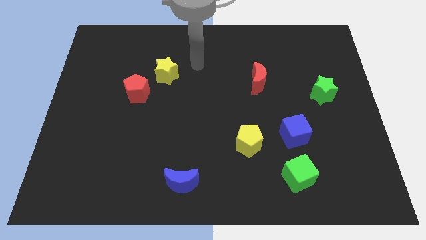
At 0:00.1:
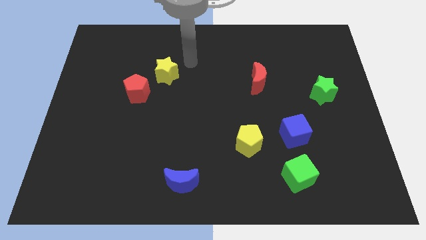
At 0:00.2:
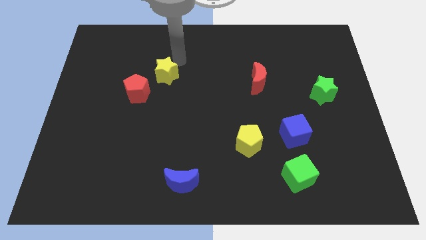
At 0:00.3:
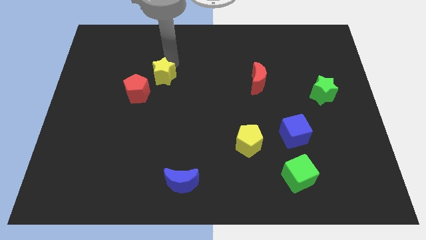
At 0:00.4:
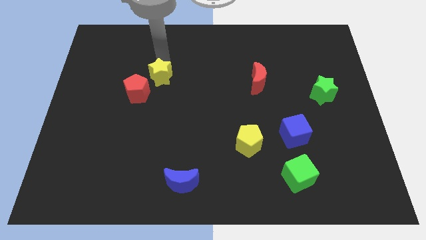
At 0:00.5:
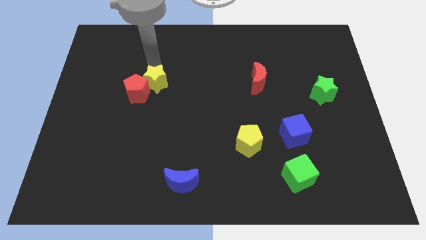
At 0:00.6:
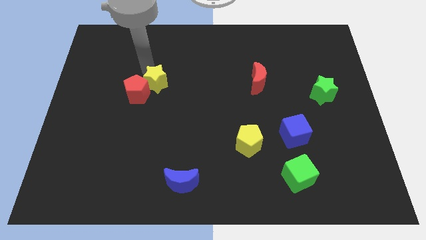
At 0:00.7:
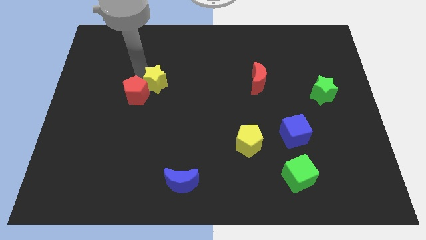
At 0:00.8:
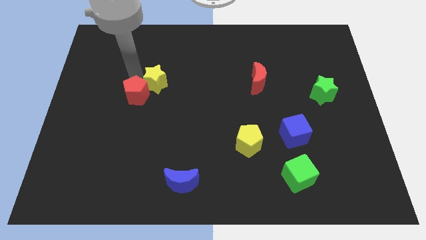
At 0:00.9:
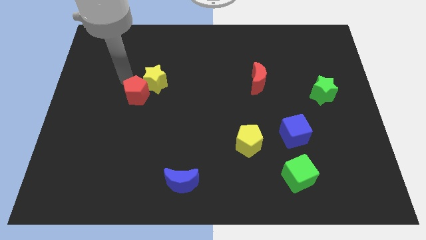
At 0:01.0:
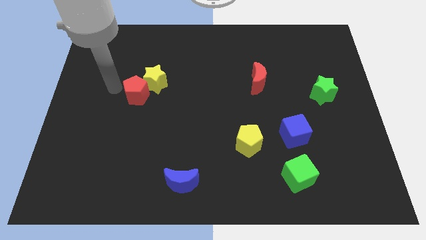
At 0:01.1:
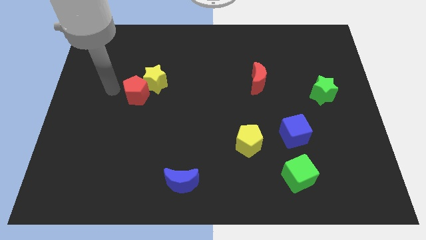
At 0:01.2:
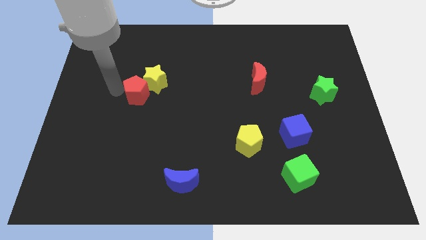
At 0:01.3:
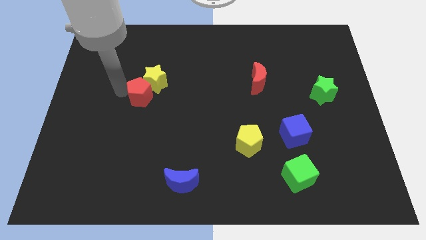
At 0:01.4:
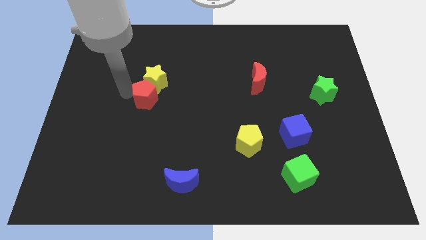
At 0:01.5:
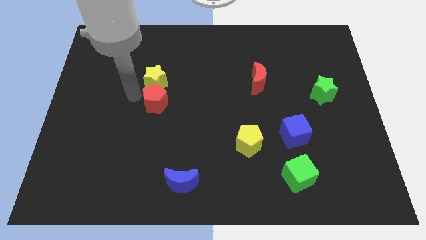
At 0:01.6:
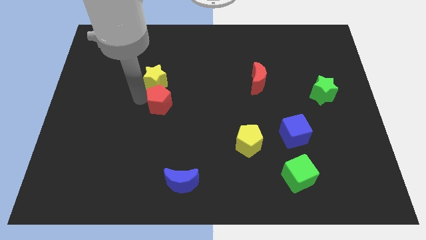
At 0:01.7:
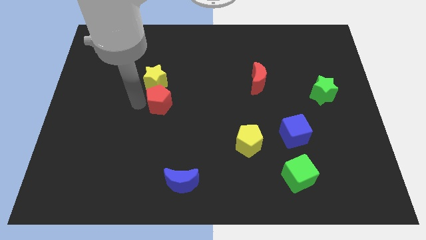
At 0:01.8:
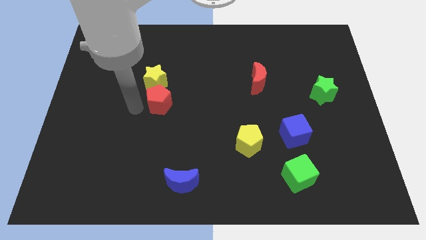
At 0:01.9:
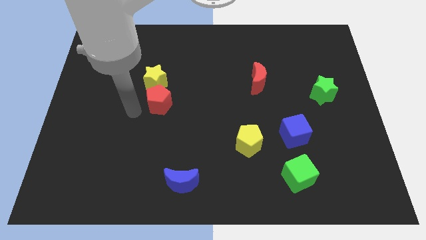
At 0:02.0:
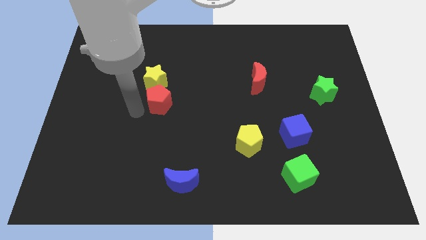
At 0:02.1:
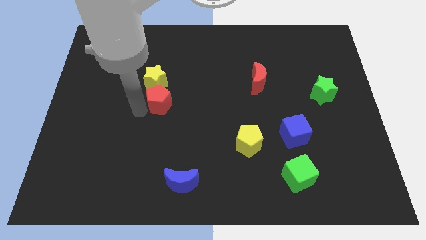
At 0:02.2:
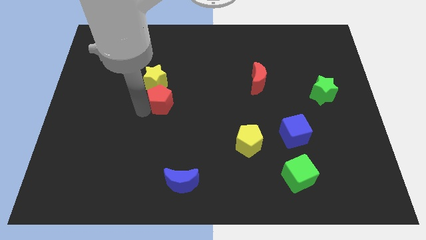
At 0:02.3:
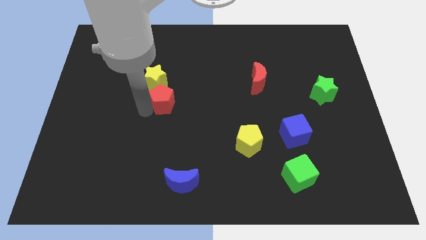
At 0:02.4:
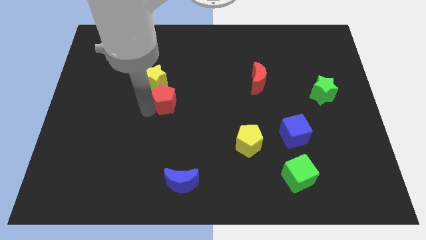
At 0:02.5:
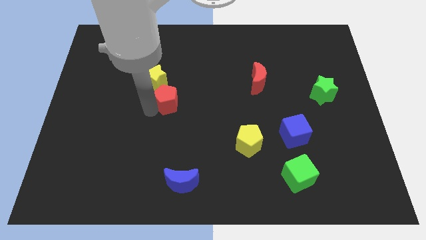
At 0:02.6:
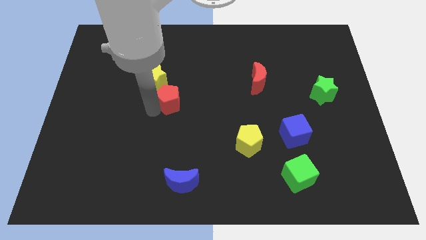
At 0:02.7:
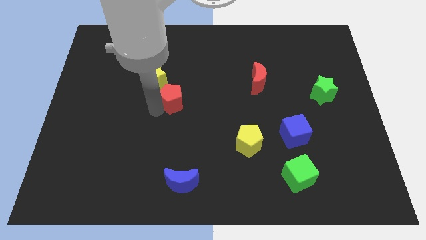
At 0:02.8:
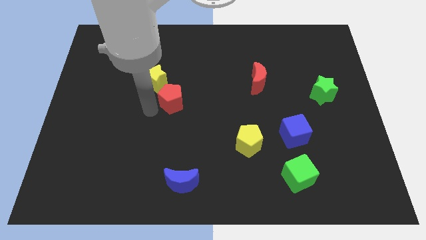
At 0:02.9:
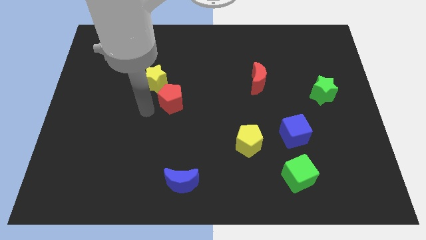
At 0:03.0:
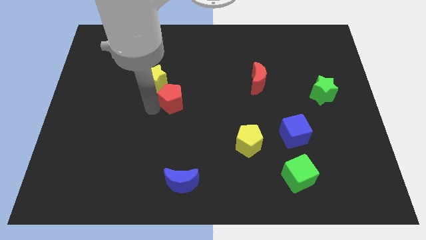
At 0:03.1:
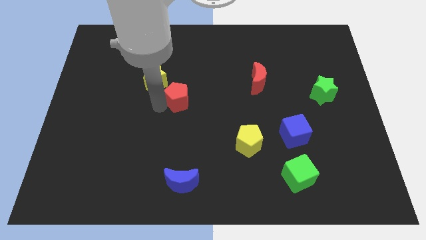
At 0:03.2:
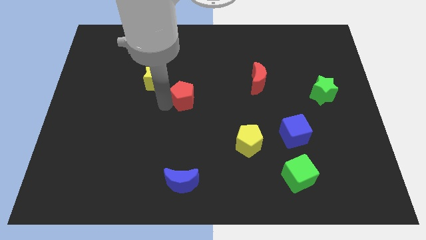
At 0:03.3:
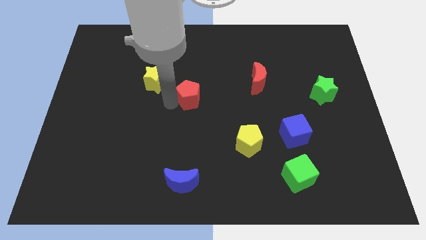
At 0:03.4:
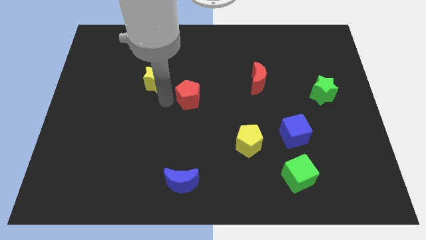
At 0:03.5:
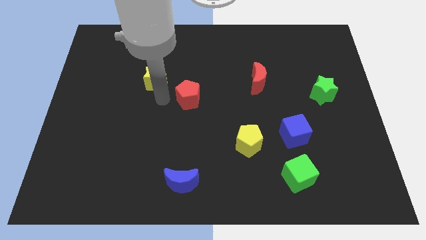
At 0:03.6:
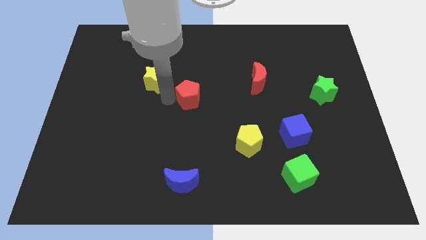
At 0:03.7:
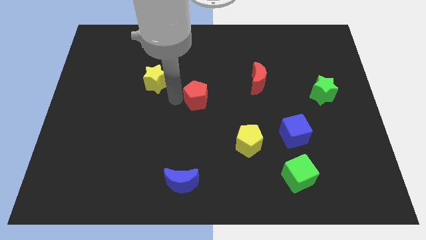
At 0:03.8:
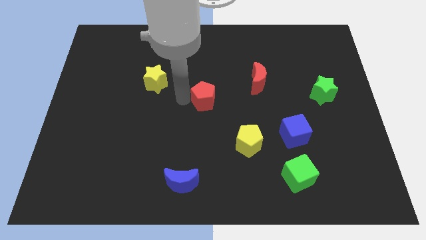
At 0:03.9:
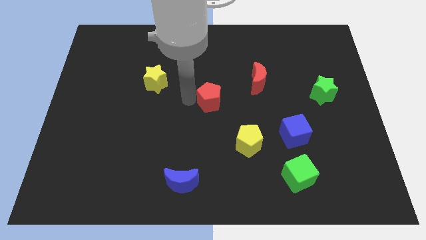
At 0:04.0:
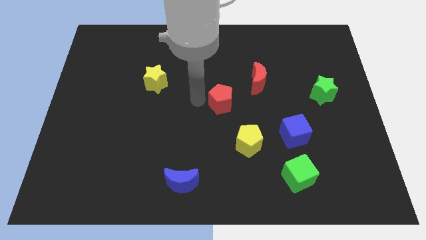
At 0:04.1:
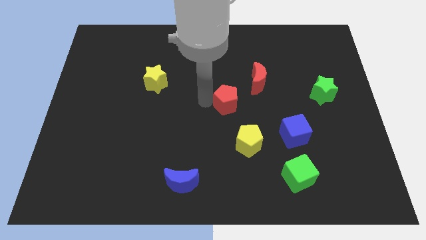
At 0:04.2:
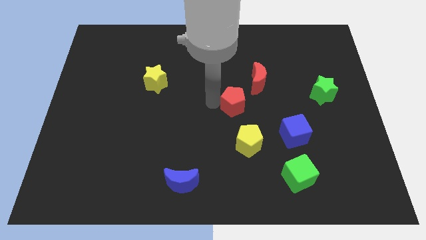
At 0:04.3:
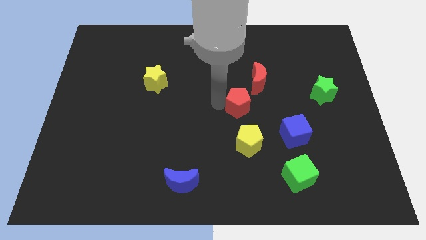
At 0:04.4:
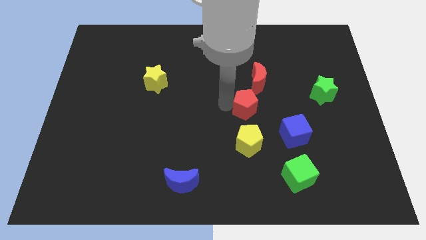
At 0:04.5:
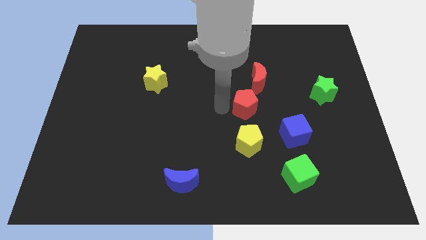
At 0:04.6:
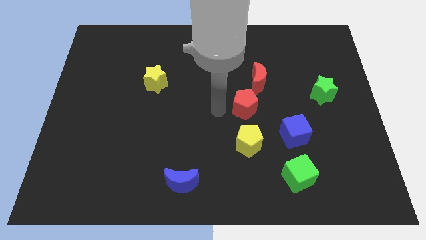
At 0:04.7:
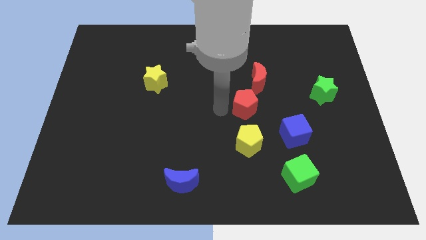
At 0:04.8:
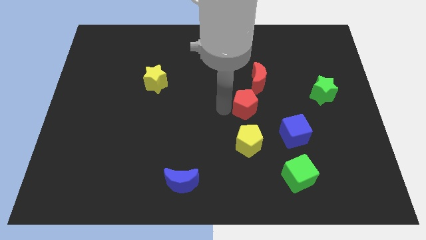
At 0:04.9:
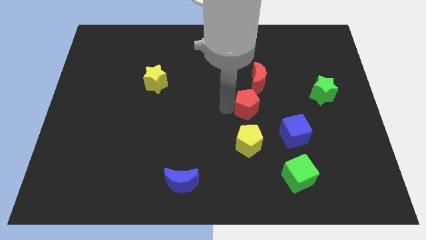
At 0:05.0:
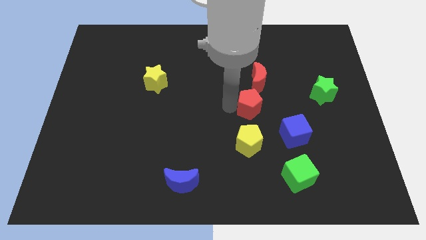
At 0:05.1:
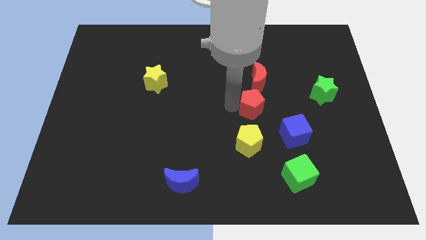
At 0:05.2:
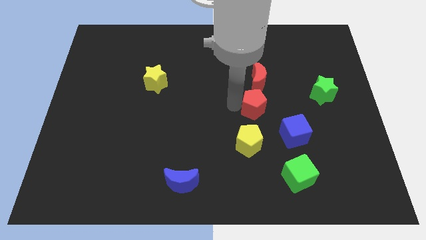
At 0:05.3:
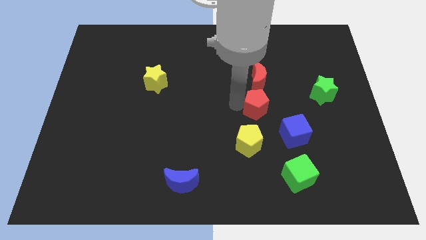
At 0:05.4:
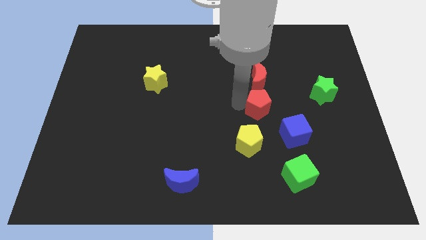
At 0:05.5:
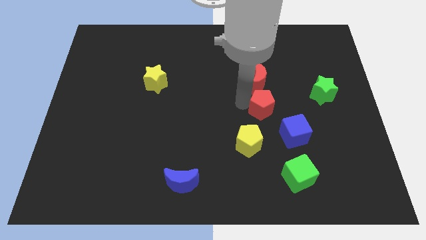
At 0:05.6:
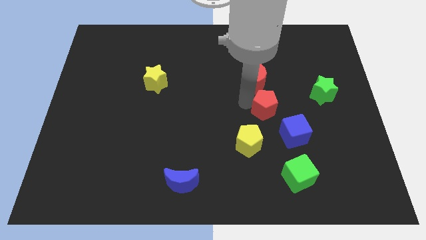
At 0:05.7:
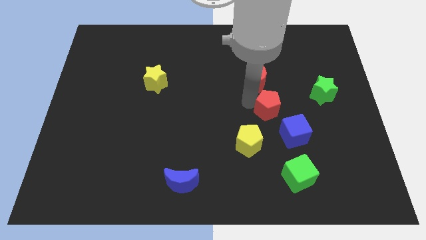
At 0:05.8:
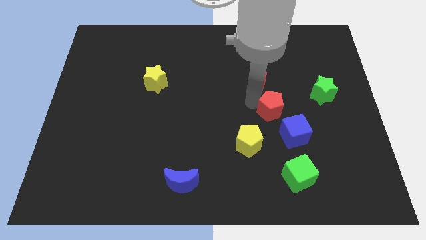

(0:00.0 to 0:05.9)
move the red pentagon to the top of the blue cube

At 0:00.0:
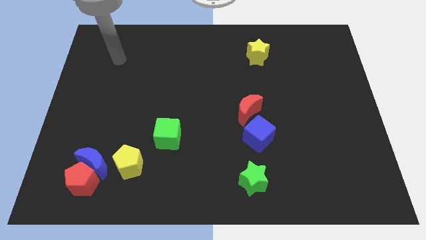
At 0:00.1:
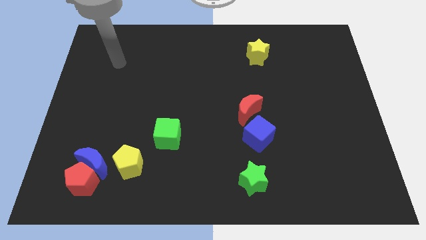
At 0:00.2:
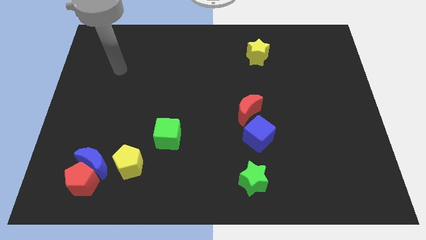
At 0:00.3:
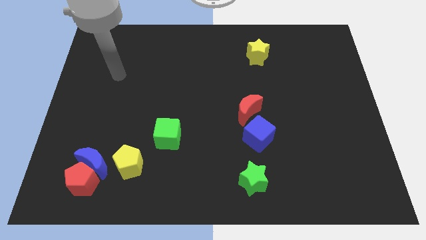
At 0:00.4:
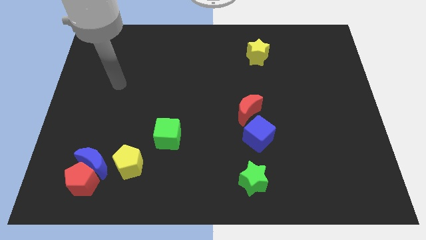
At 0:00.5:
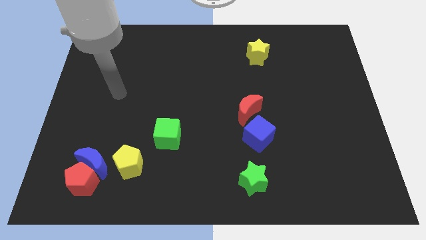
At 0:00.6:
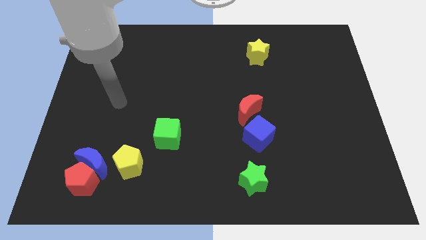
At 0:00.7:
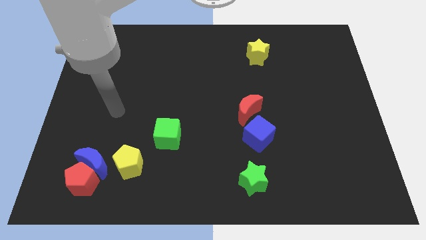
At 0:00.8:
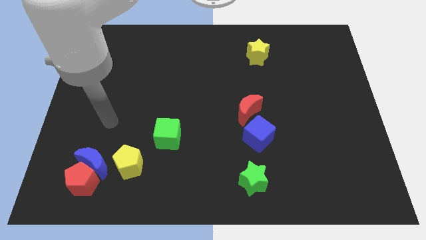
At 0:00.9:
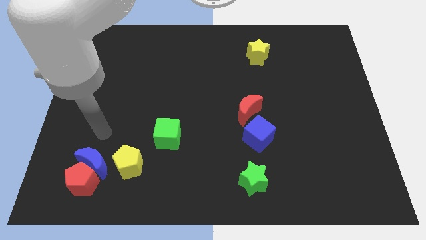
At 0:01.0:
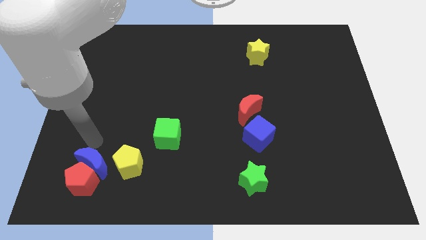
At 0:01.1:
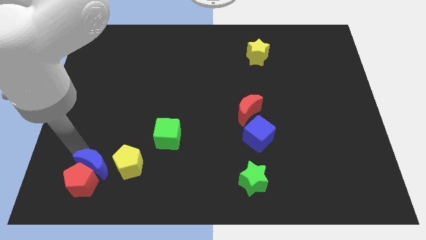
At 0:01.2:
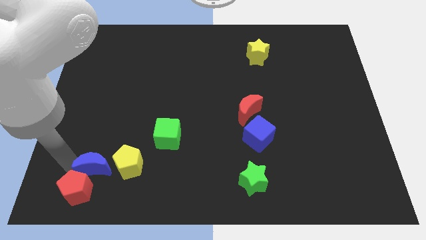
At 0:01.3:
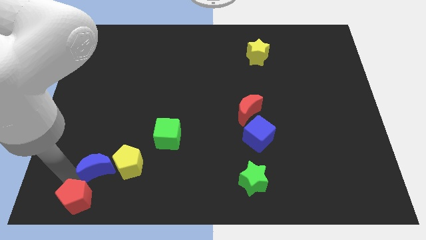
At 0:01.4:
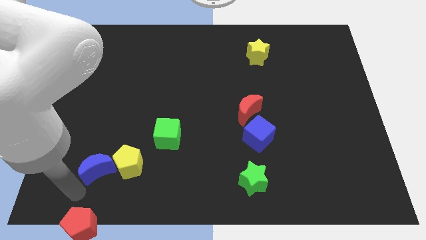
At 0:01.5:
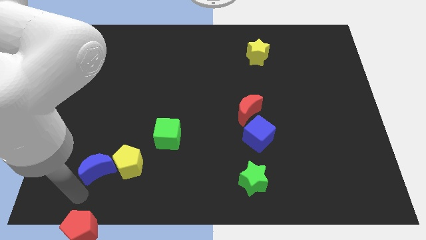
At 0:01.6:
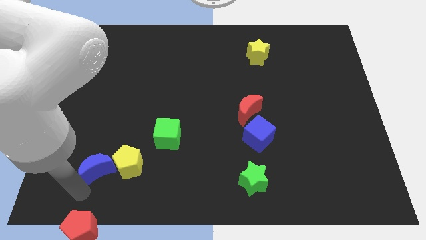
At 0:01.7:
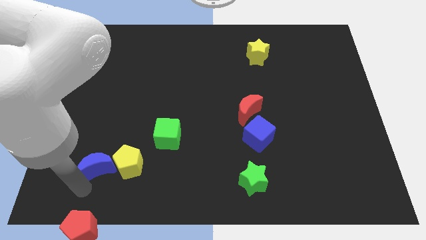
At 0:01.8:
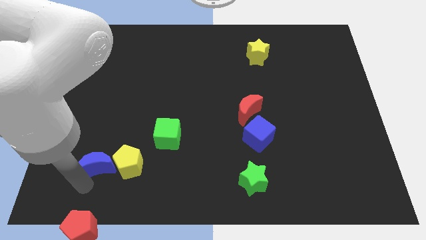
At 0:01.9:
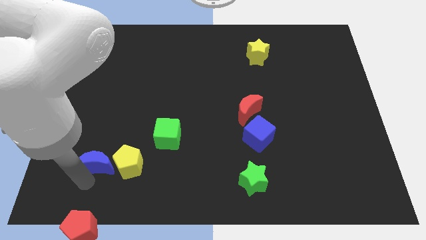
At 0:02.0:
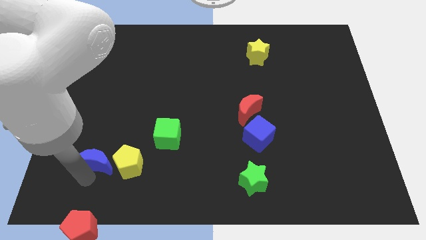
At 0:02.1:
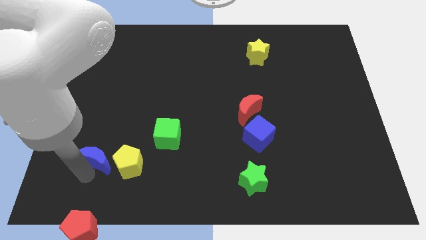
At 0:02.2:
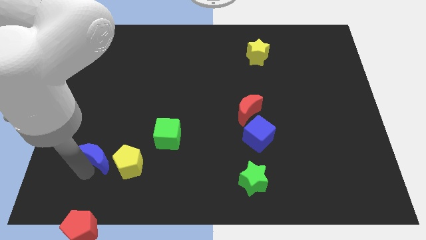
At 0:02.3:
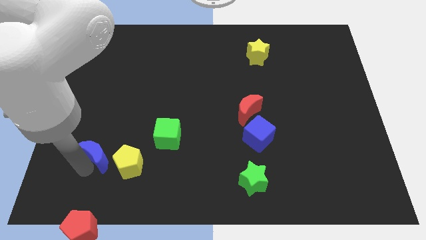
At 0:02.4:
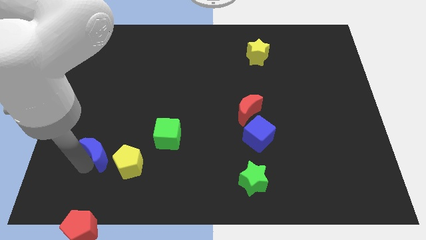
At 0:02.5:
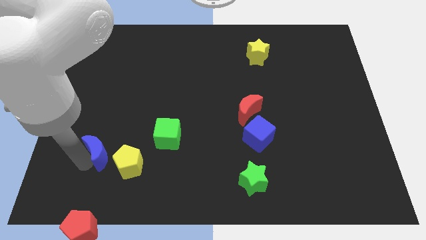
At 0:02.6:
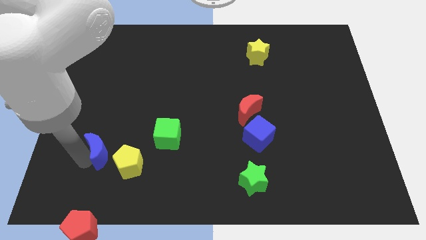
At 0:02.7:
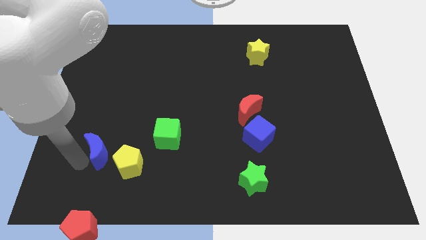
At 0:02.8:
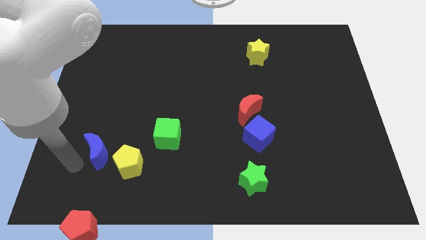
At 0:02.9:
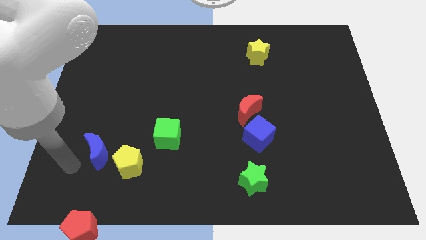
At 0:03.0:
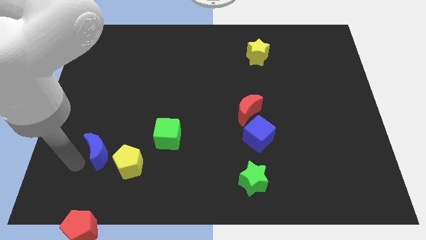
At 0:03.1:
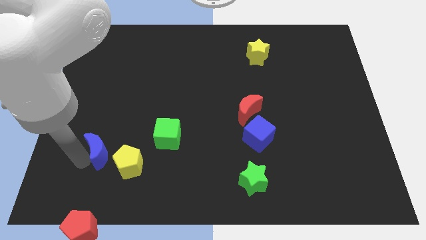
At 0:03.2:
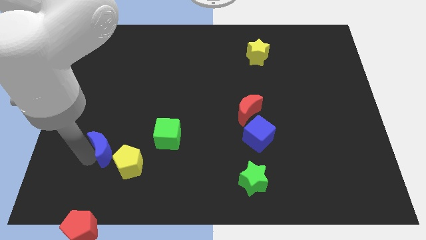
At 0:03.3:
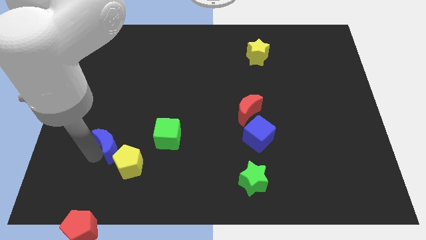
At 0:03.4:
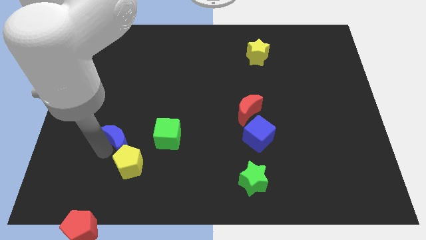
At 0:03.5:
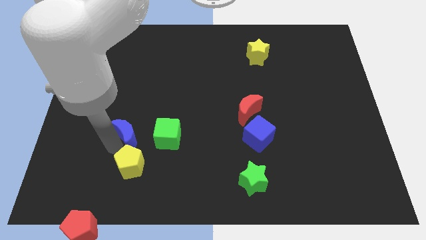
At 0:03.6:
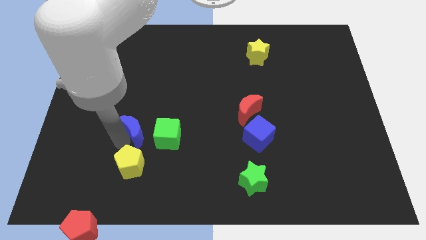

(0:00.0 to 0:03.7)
put the blue moon diagonally up and to the left of the green cube
